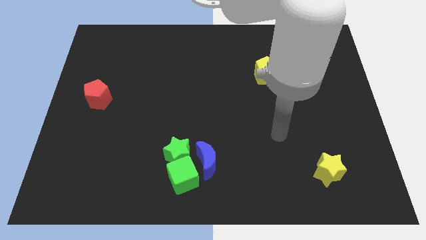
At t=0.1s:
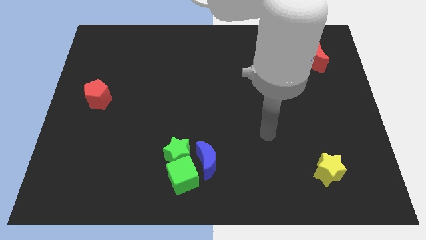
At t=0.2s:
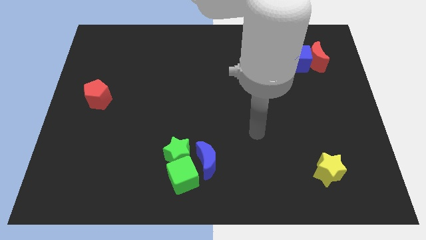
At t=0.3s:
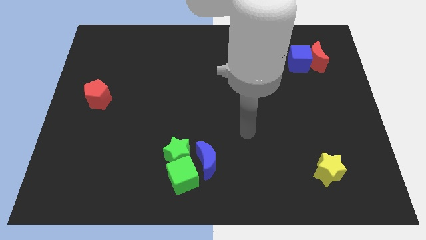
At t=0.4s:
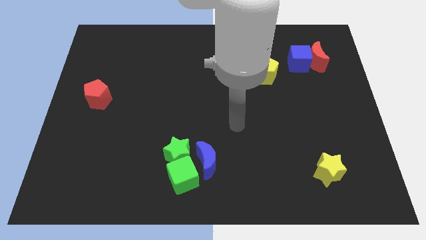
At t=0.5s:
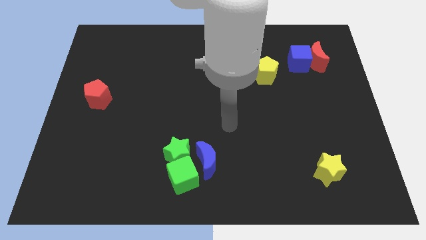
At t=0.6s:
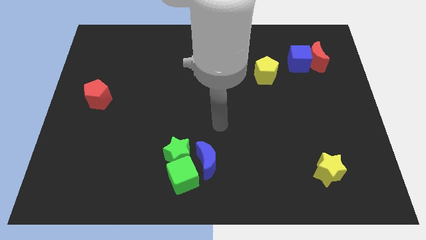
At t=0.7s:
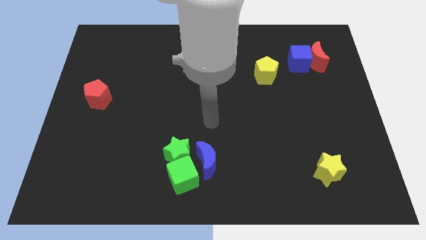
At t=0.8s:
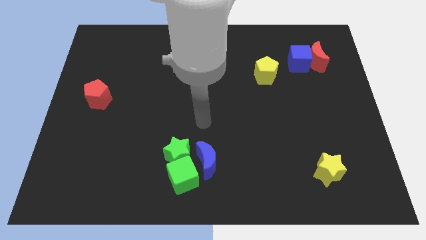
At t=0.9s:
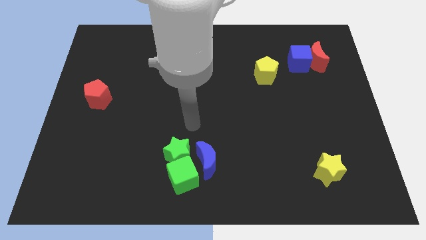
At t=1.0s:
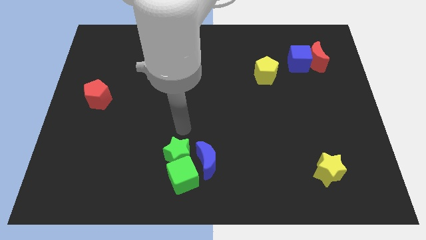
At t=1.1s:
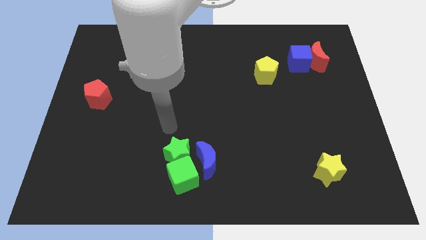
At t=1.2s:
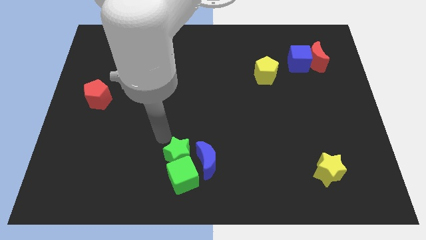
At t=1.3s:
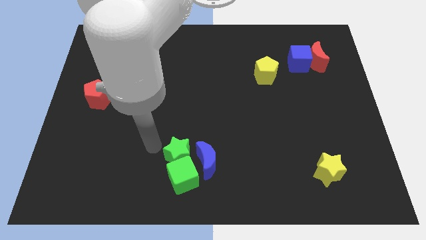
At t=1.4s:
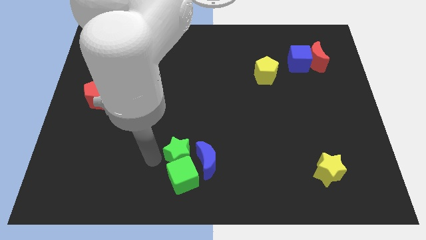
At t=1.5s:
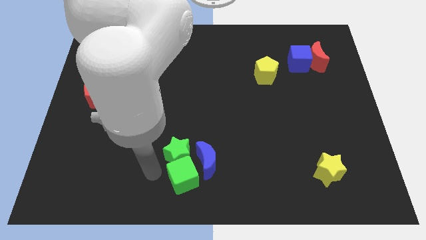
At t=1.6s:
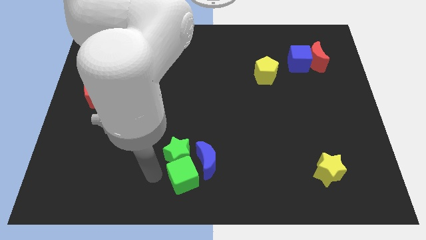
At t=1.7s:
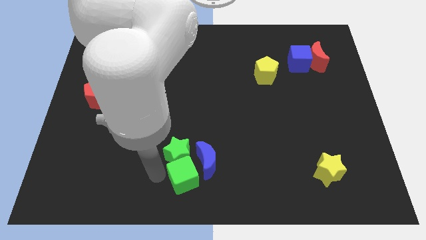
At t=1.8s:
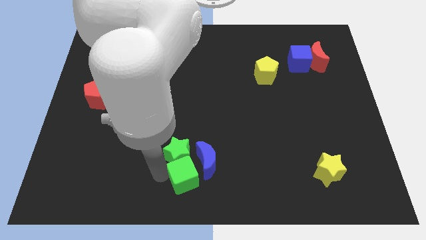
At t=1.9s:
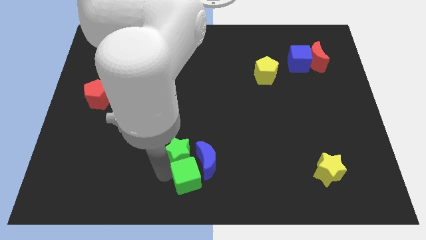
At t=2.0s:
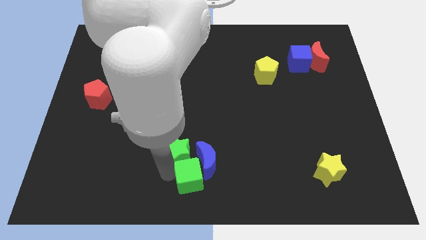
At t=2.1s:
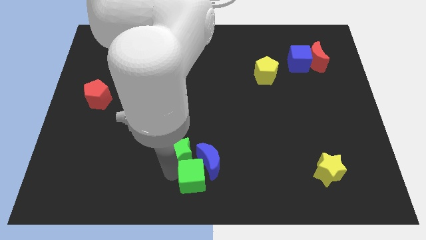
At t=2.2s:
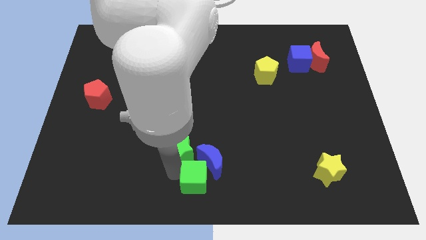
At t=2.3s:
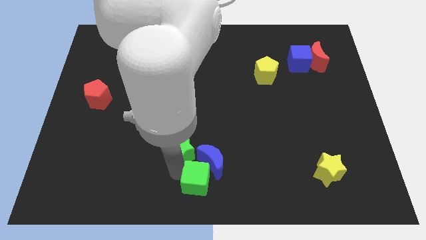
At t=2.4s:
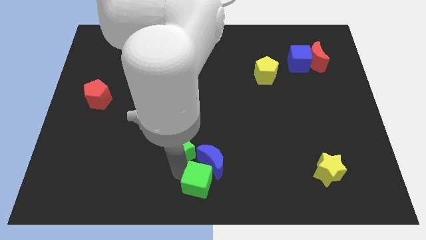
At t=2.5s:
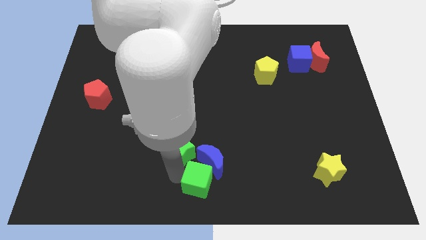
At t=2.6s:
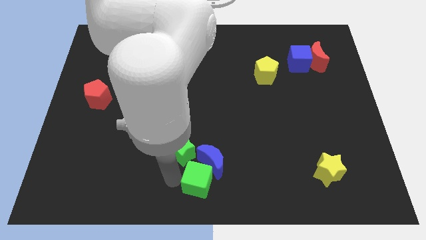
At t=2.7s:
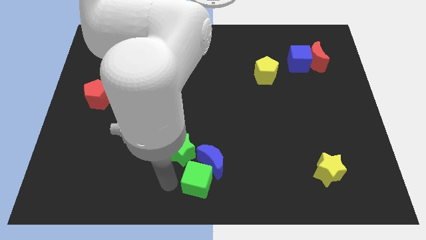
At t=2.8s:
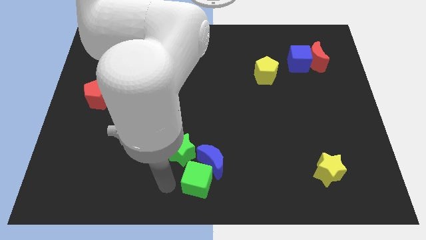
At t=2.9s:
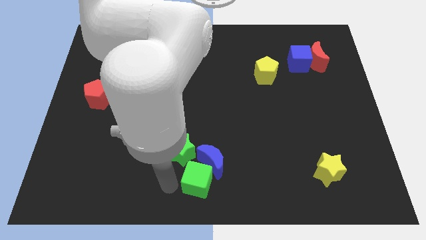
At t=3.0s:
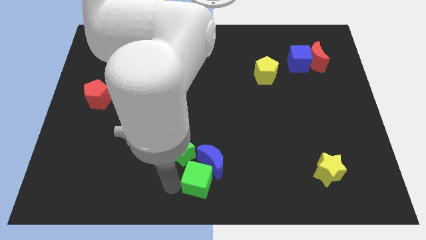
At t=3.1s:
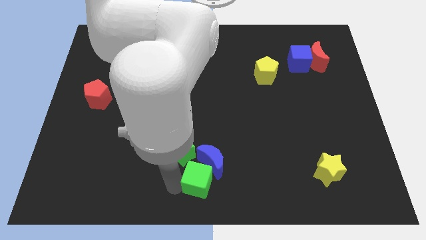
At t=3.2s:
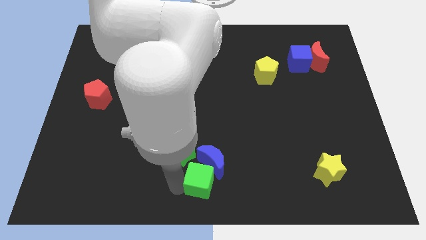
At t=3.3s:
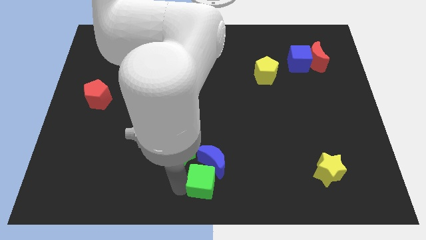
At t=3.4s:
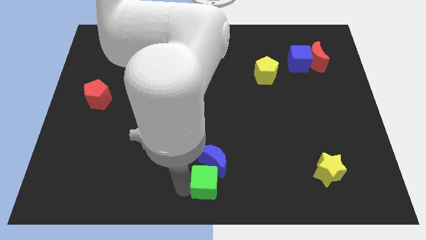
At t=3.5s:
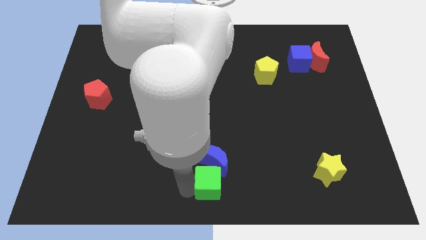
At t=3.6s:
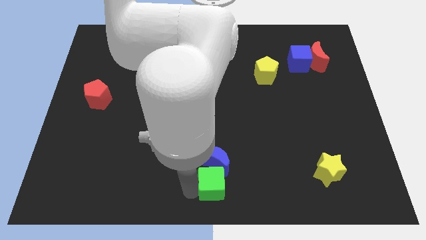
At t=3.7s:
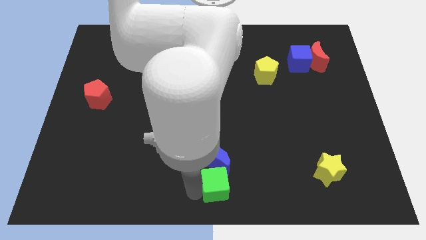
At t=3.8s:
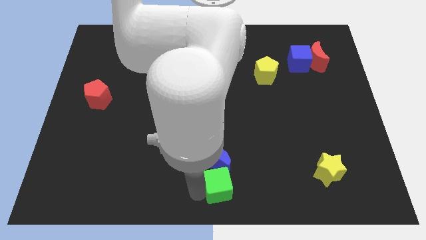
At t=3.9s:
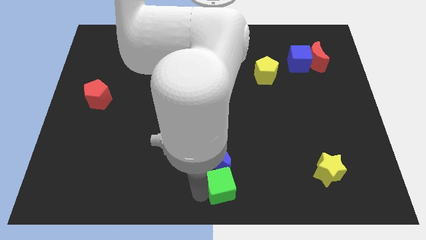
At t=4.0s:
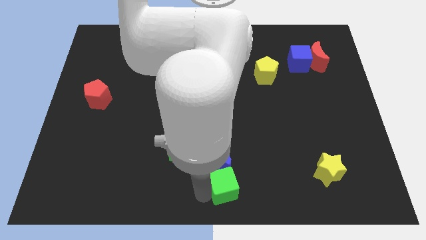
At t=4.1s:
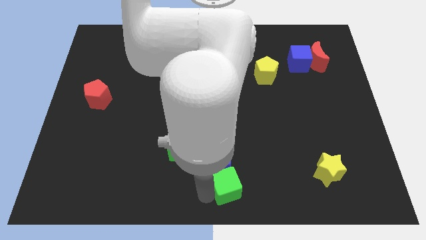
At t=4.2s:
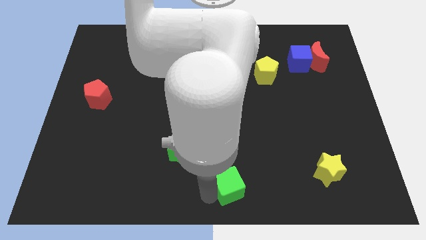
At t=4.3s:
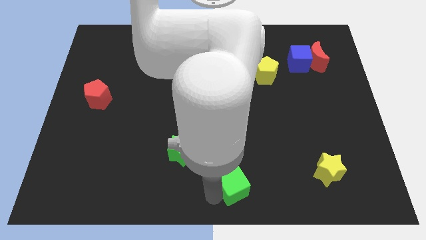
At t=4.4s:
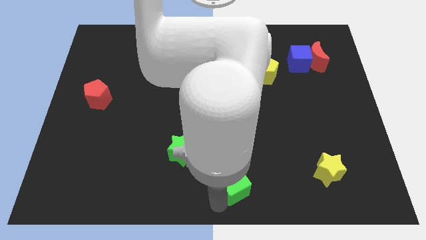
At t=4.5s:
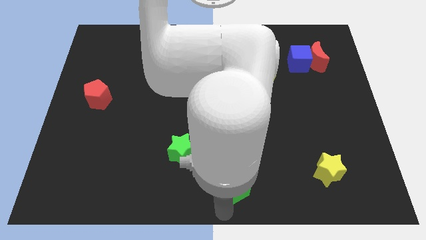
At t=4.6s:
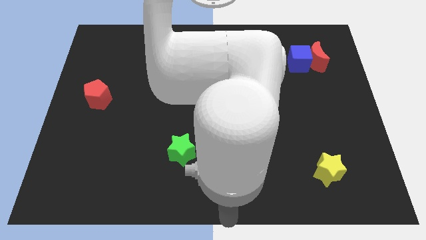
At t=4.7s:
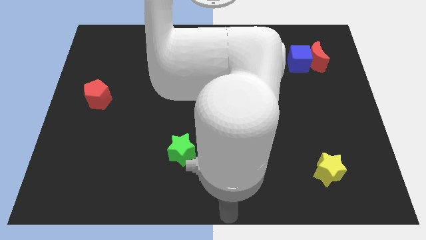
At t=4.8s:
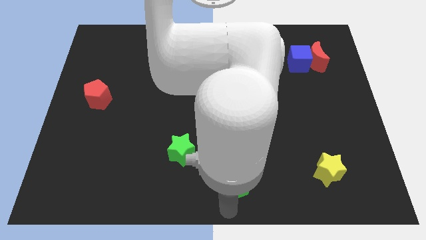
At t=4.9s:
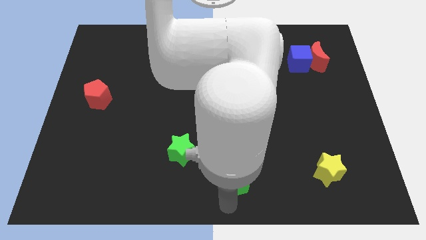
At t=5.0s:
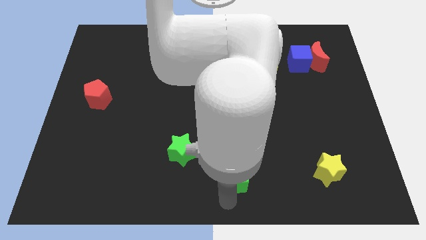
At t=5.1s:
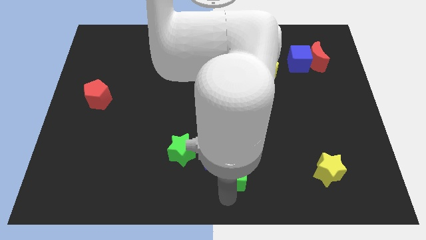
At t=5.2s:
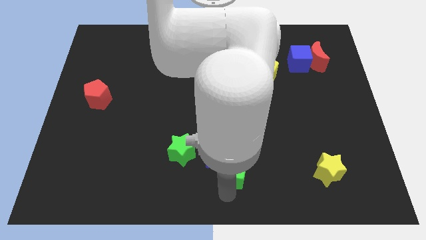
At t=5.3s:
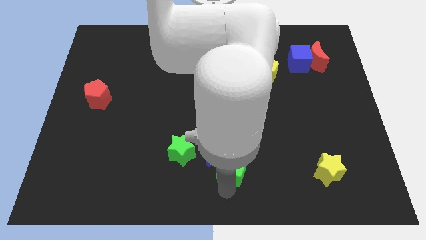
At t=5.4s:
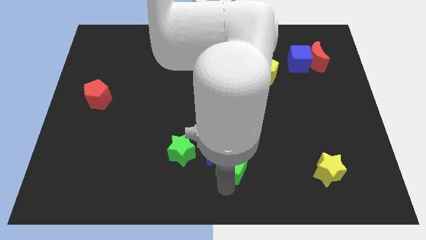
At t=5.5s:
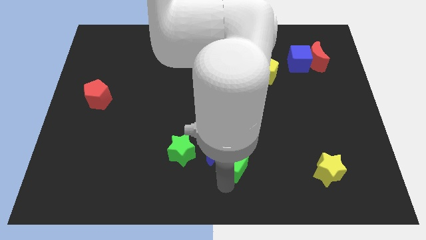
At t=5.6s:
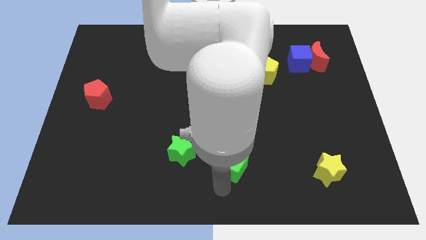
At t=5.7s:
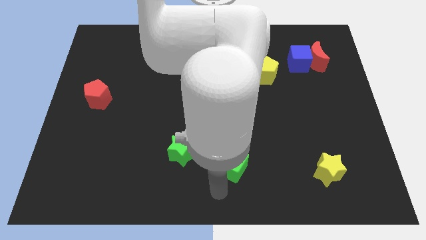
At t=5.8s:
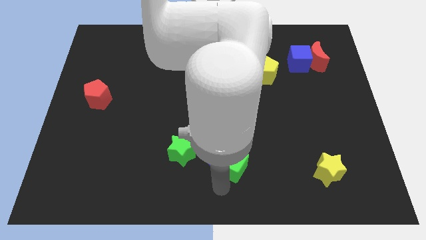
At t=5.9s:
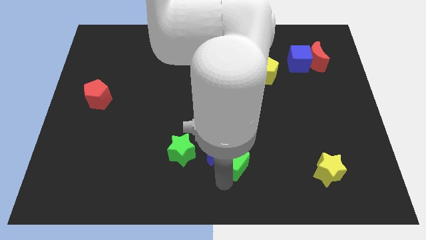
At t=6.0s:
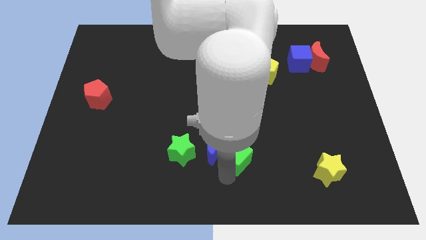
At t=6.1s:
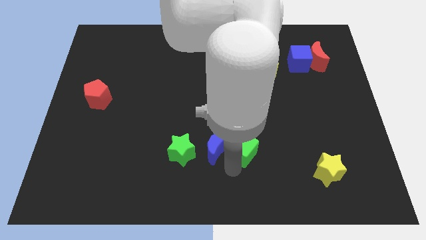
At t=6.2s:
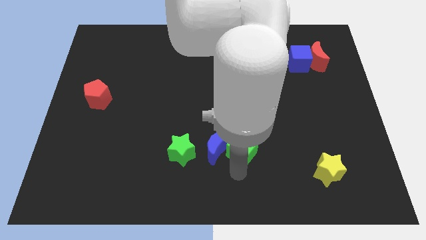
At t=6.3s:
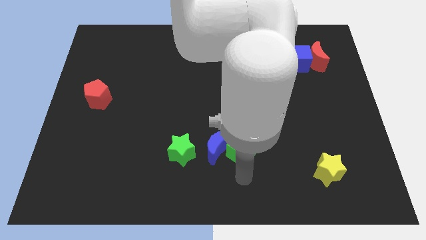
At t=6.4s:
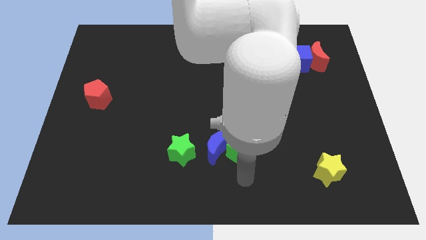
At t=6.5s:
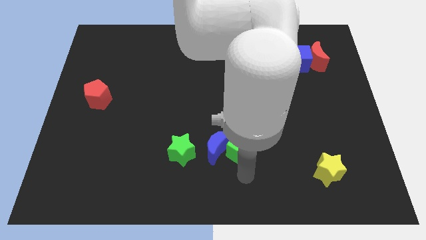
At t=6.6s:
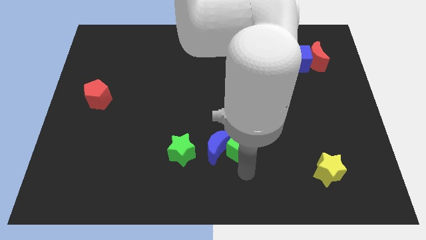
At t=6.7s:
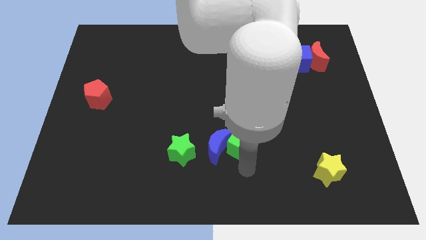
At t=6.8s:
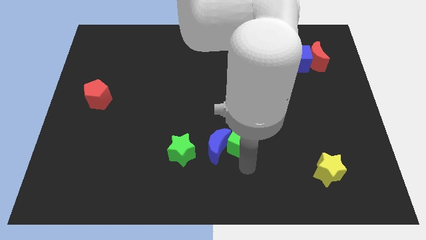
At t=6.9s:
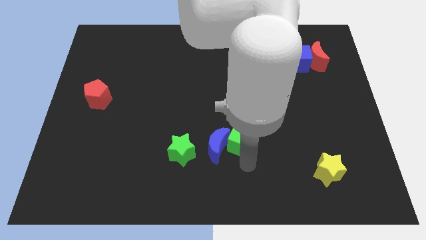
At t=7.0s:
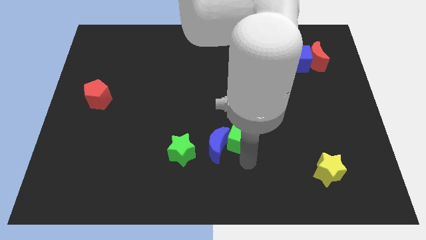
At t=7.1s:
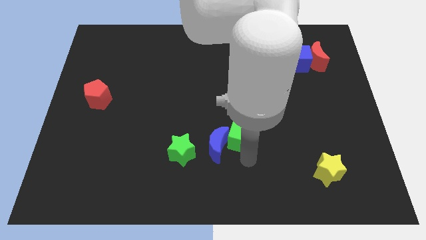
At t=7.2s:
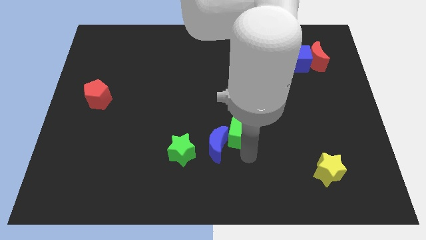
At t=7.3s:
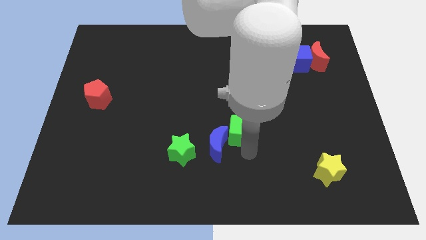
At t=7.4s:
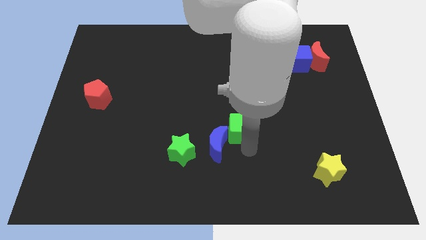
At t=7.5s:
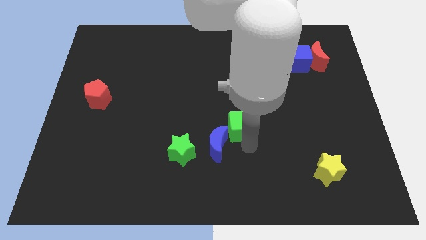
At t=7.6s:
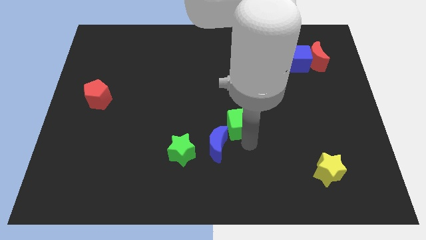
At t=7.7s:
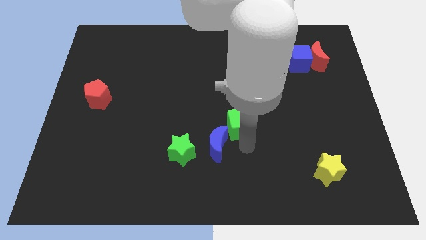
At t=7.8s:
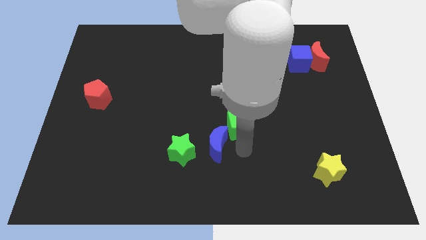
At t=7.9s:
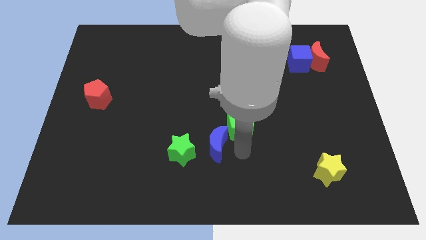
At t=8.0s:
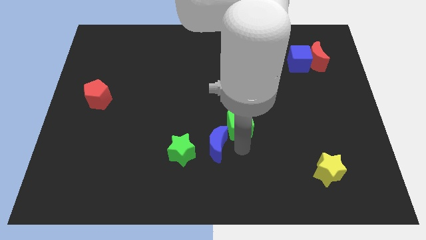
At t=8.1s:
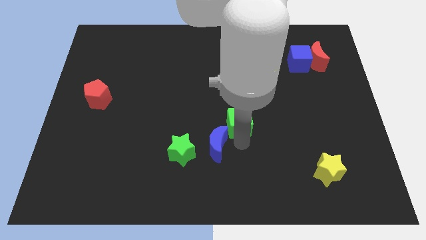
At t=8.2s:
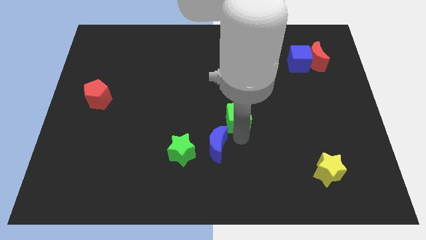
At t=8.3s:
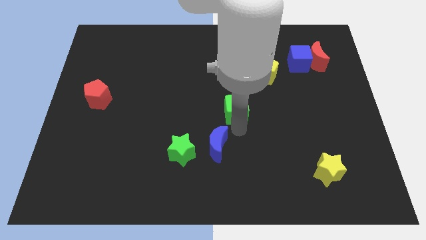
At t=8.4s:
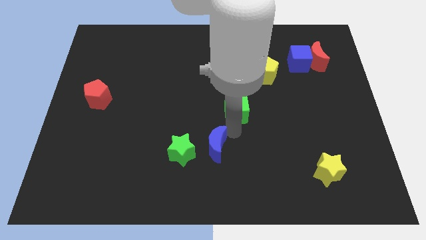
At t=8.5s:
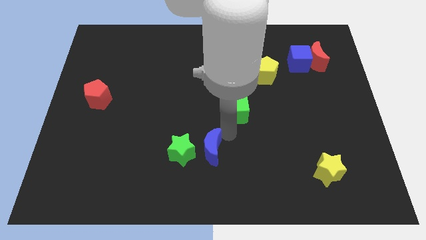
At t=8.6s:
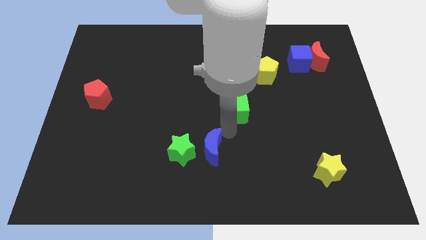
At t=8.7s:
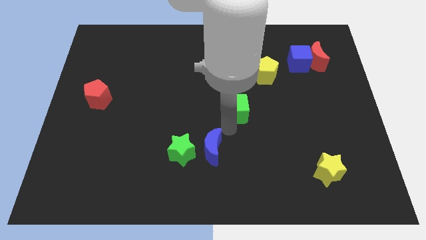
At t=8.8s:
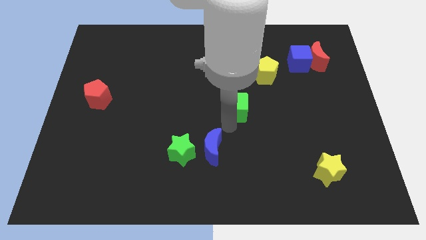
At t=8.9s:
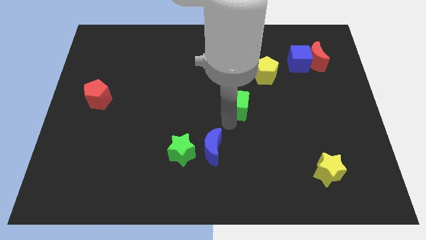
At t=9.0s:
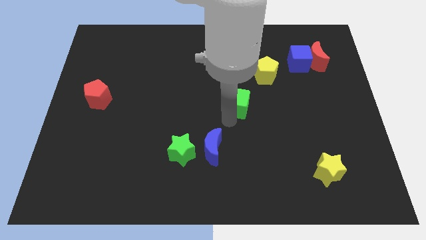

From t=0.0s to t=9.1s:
push the green cube to the bottom left side of the yellow pentagon
